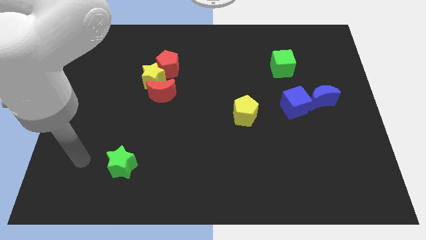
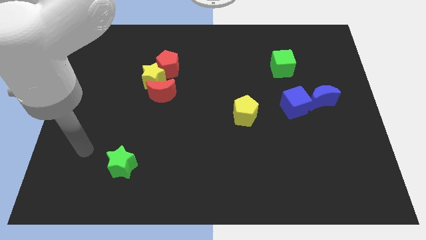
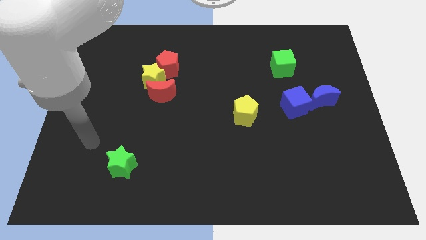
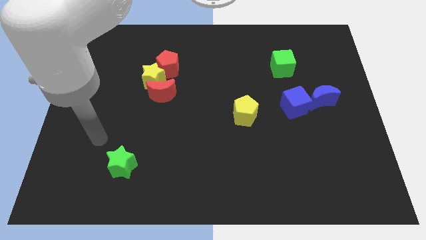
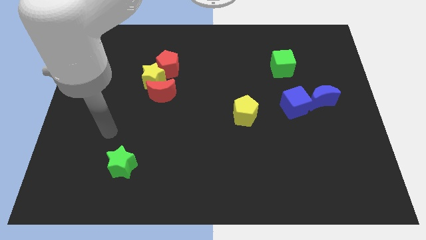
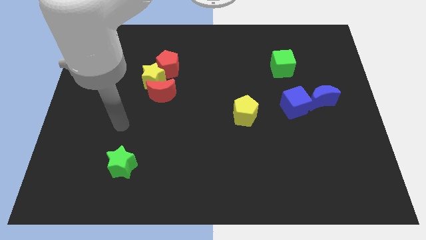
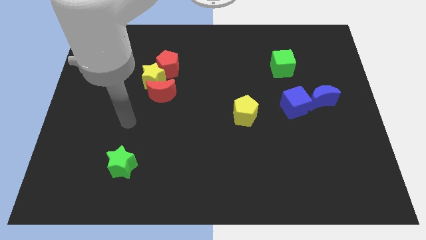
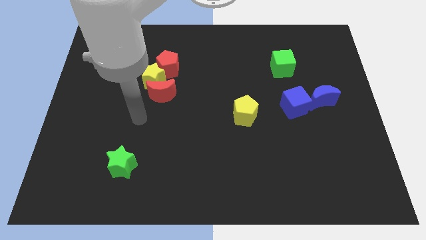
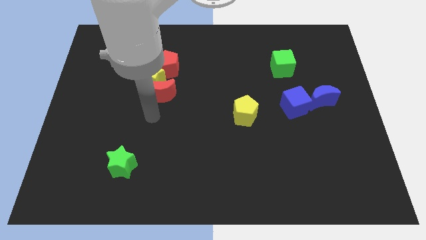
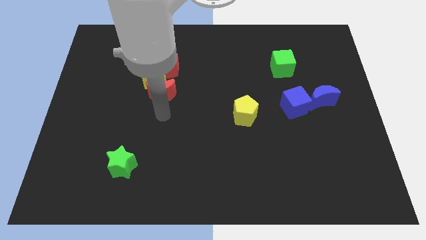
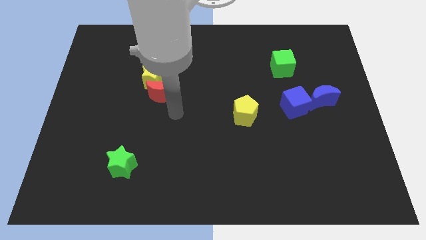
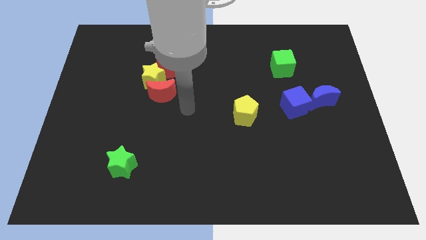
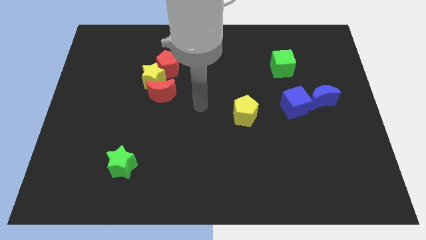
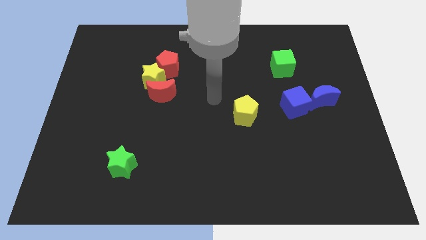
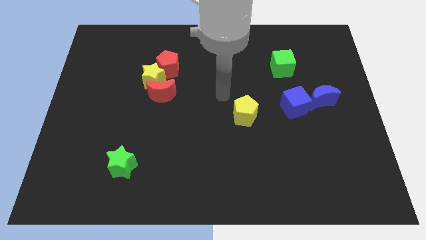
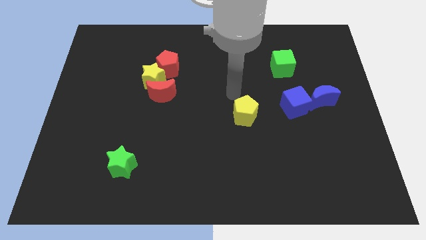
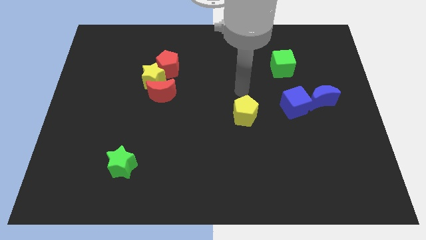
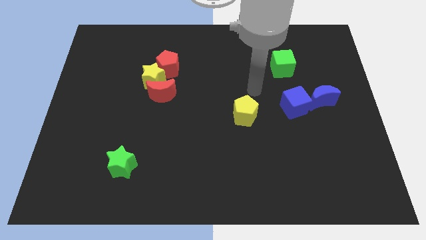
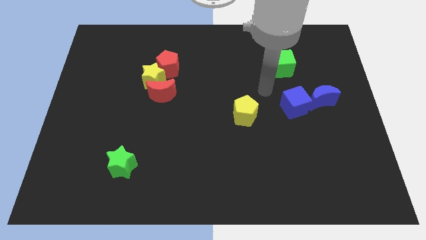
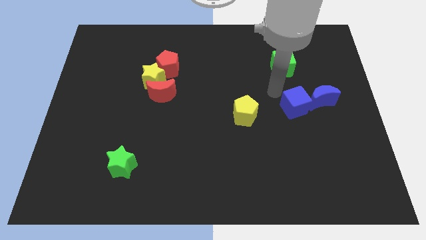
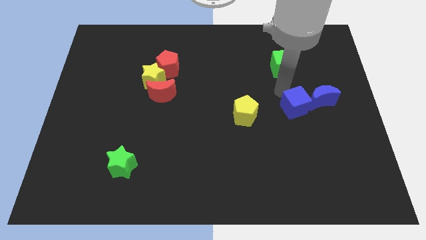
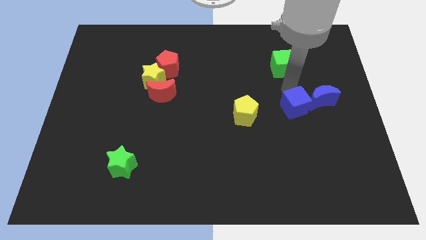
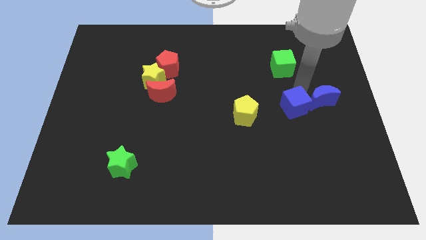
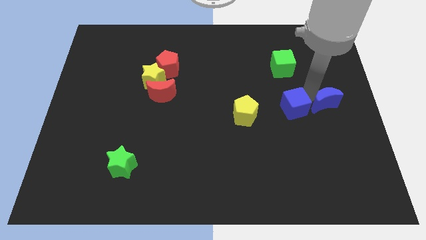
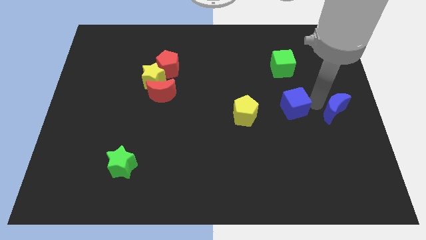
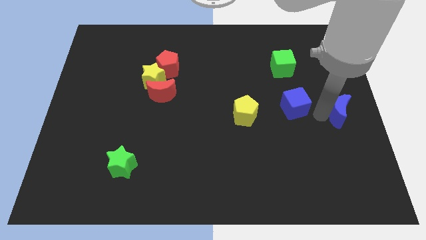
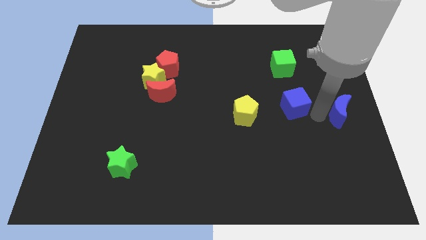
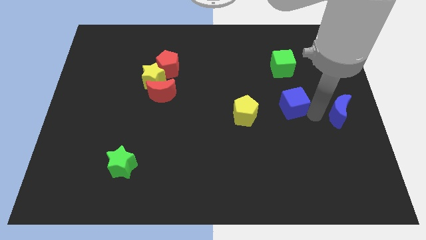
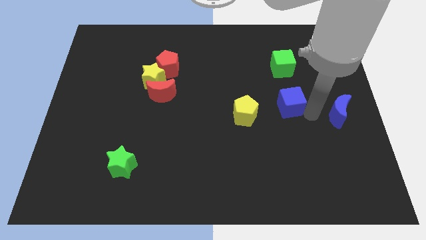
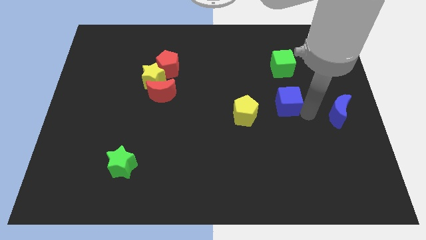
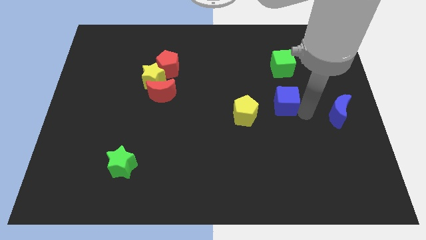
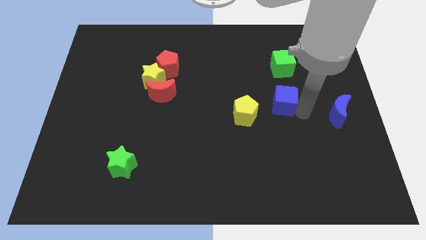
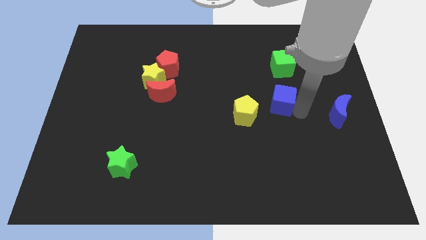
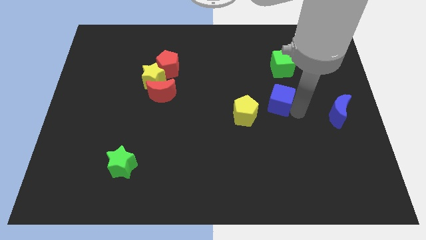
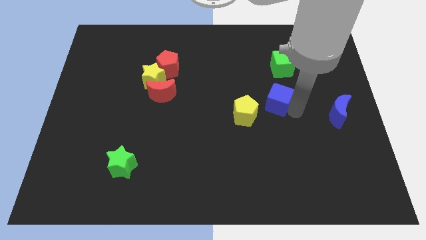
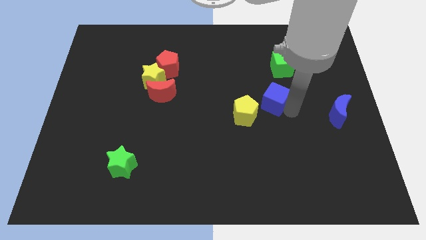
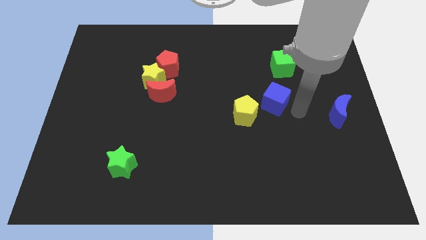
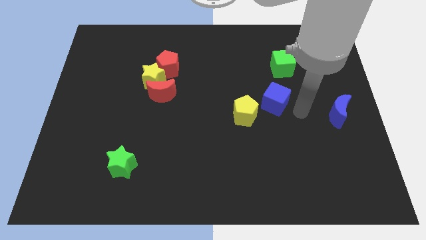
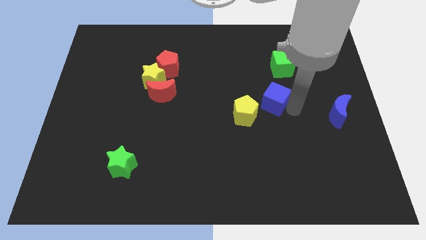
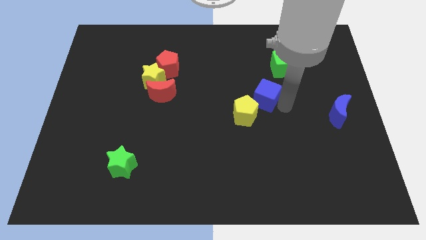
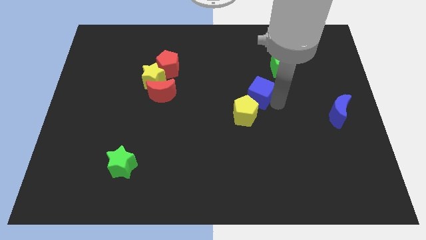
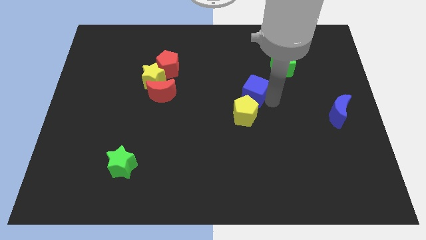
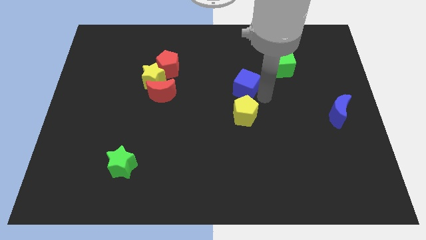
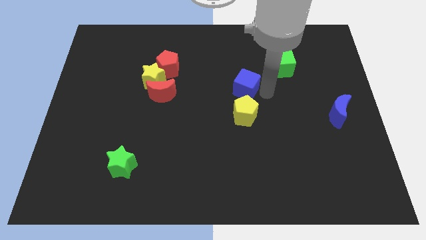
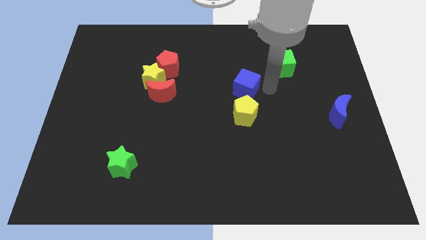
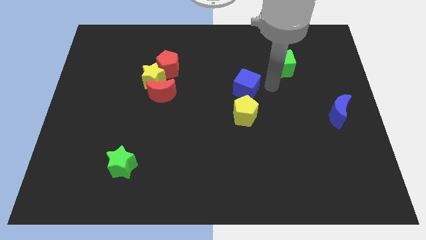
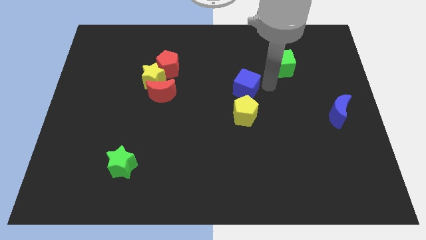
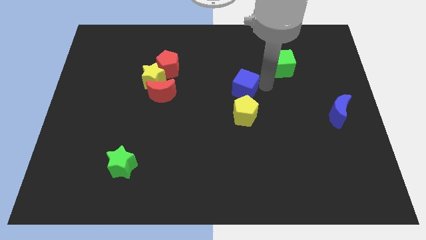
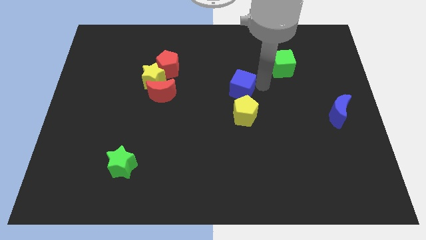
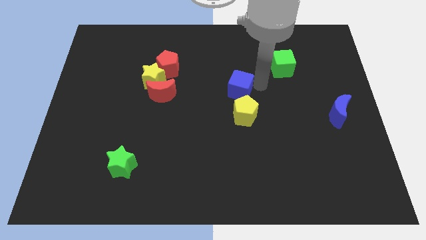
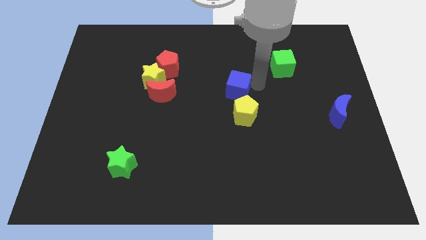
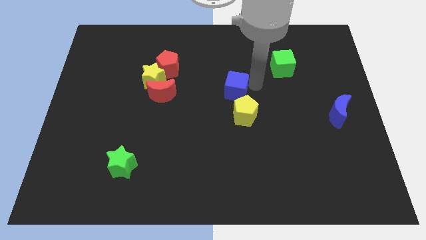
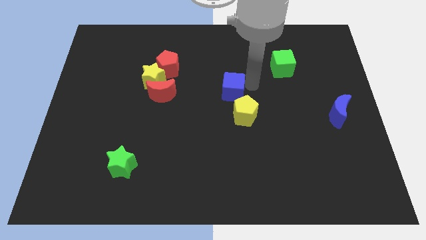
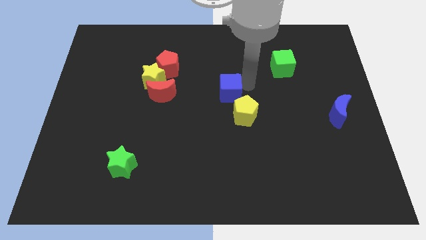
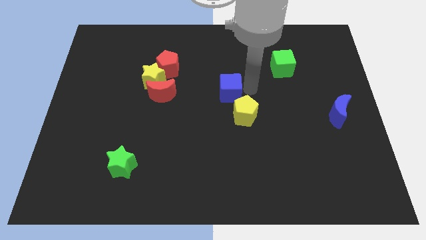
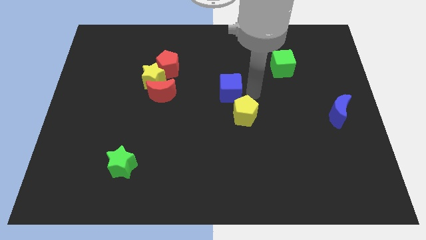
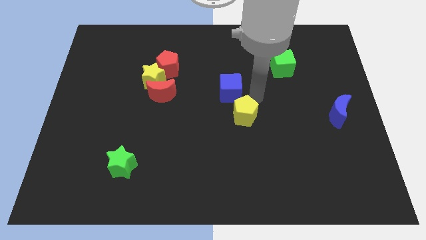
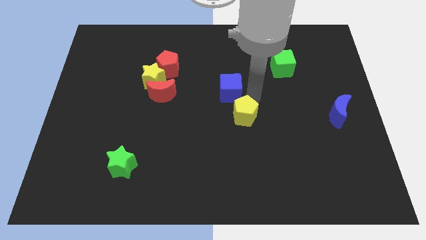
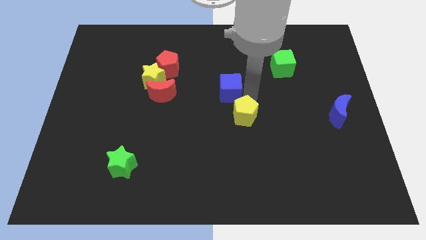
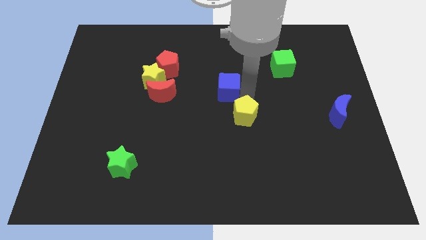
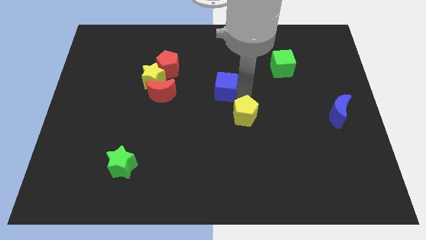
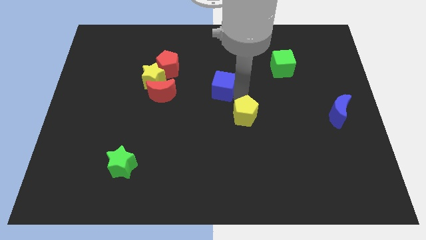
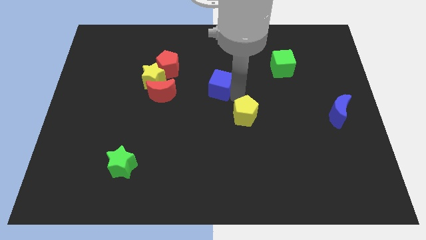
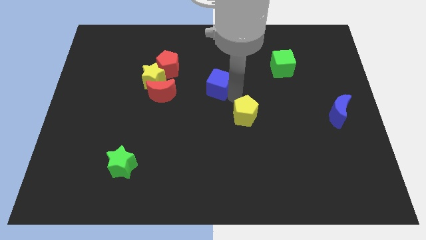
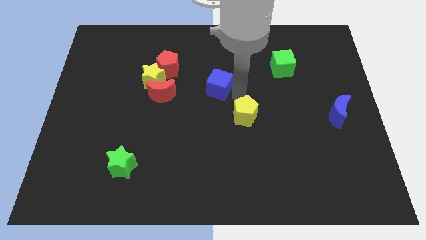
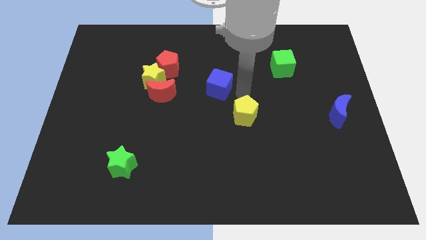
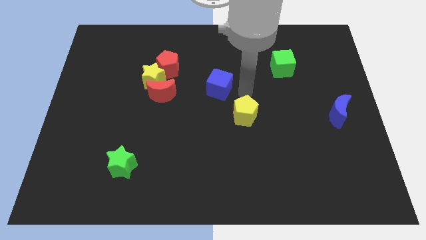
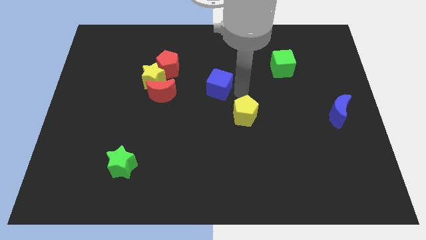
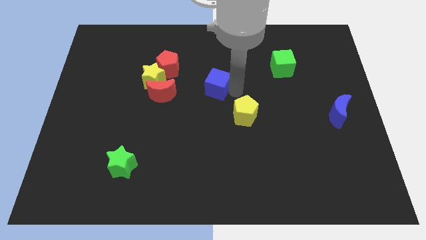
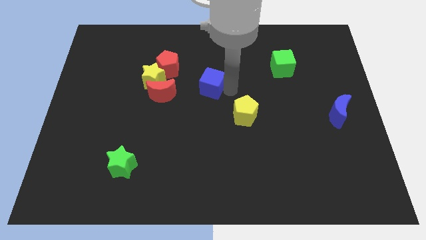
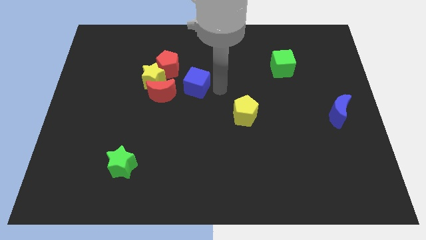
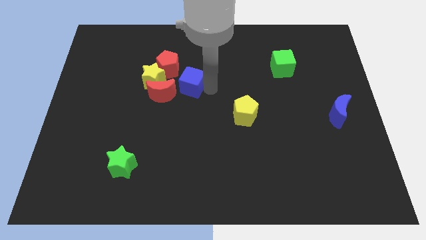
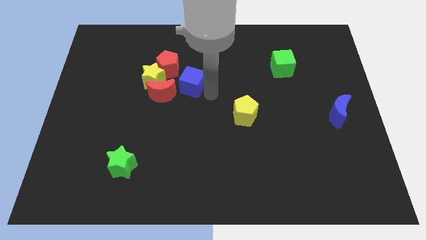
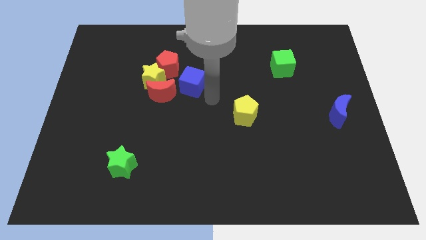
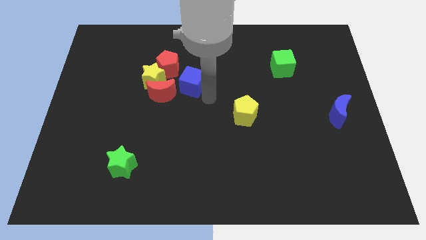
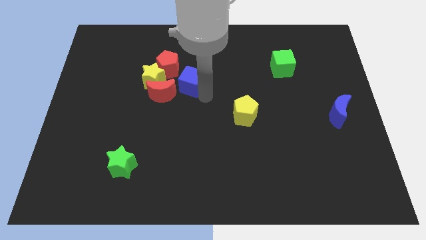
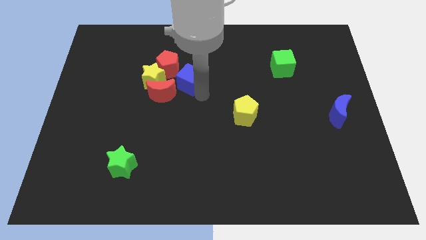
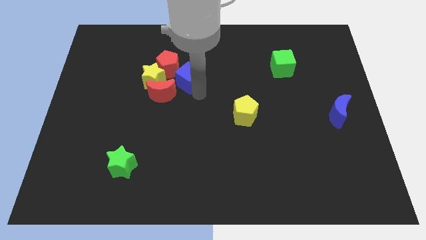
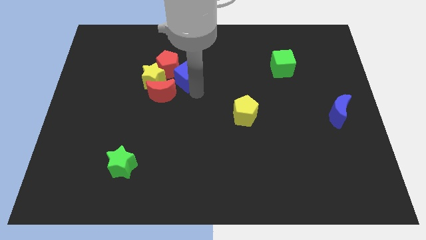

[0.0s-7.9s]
put the blue cube close to the red pentagon
